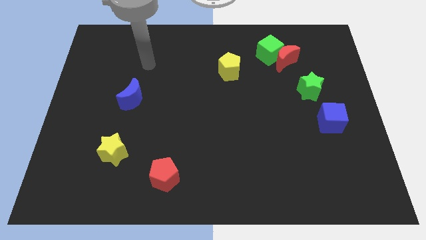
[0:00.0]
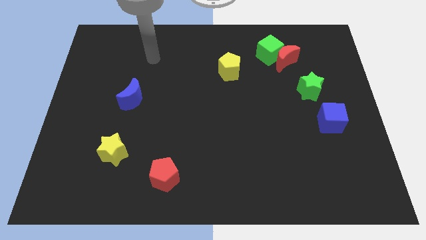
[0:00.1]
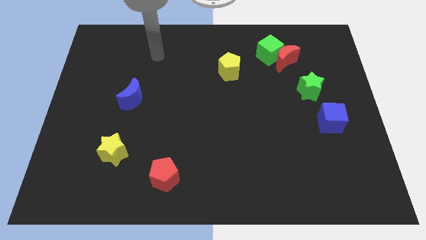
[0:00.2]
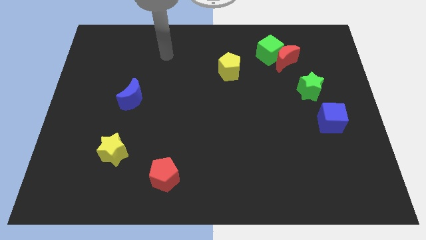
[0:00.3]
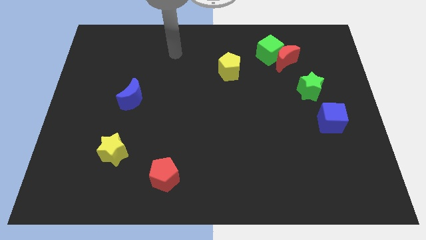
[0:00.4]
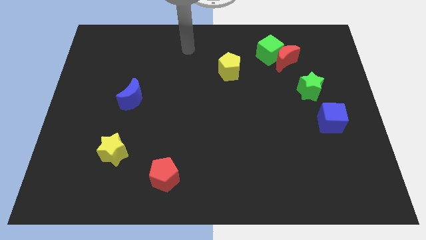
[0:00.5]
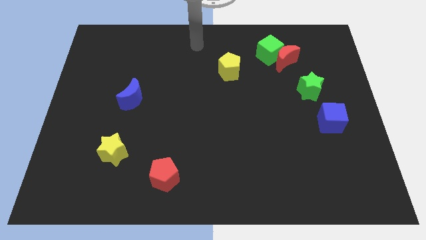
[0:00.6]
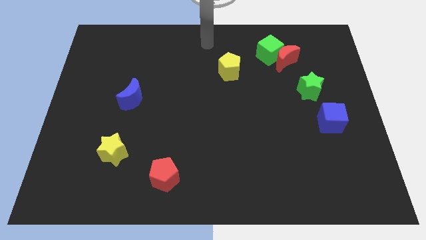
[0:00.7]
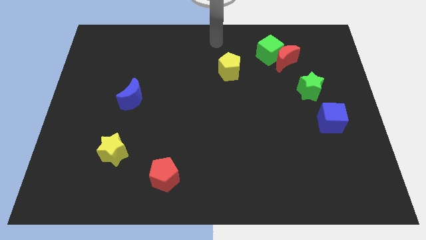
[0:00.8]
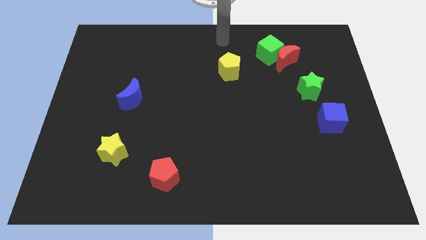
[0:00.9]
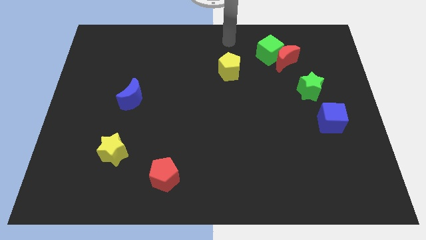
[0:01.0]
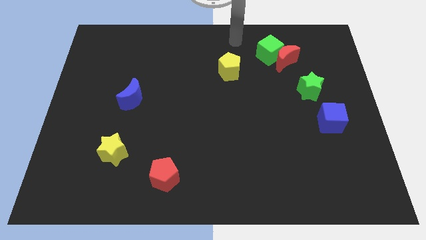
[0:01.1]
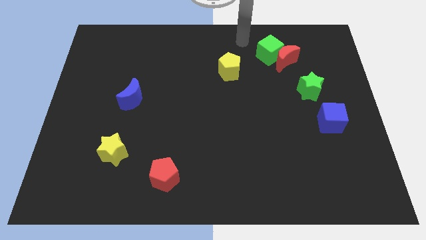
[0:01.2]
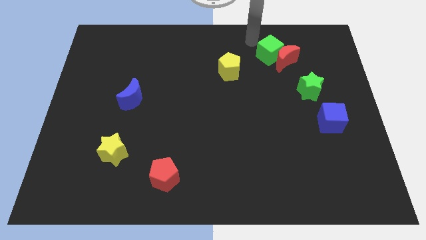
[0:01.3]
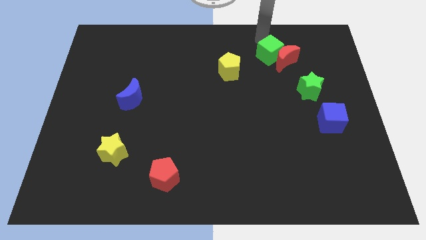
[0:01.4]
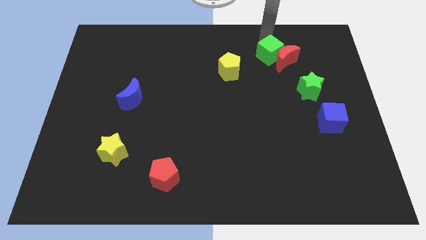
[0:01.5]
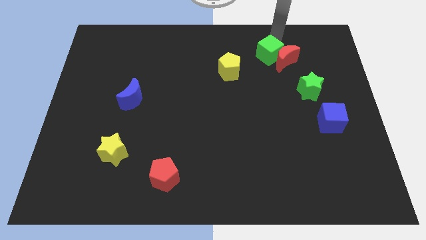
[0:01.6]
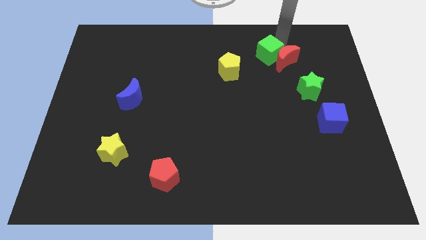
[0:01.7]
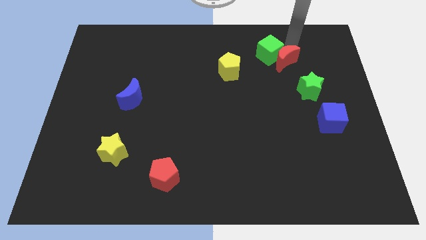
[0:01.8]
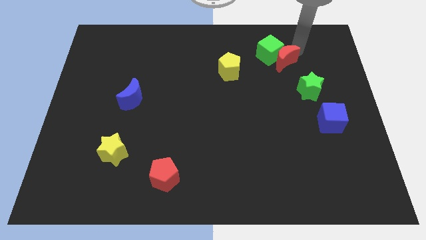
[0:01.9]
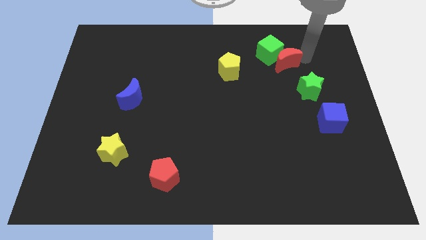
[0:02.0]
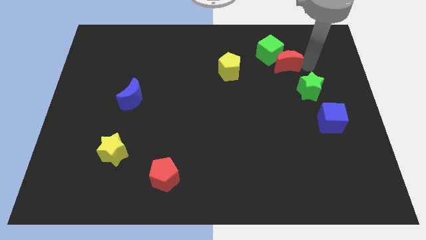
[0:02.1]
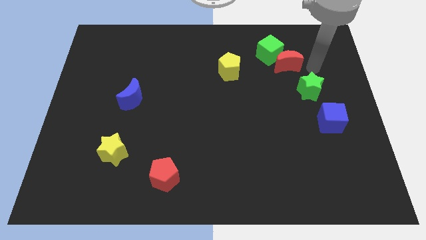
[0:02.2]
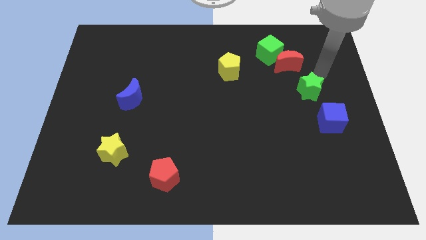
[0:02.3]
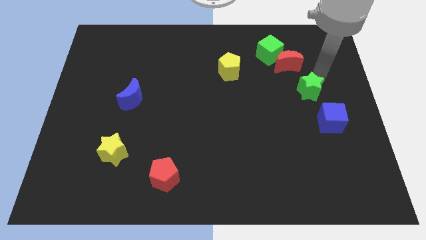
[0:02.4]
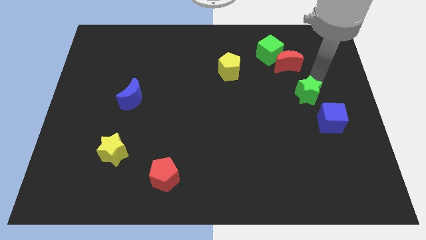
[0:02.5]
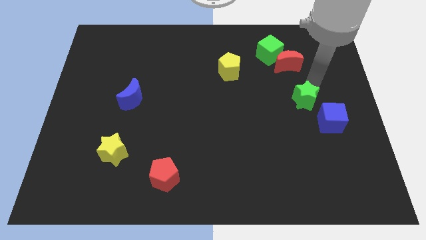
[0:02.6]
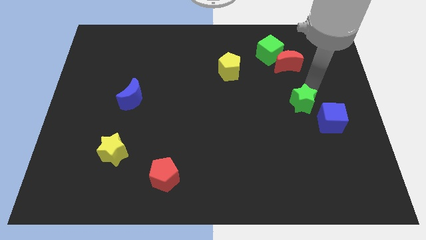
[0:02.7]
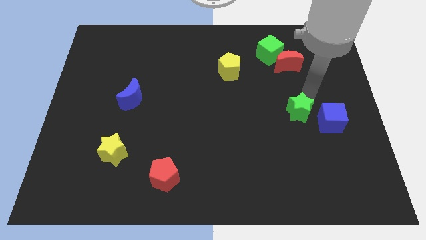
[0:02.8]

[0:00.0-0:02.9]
move the green star a bit down and left

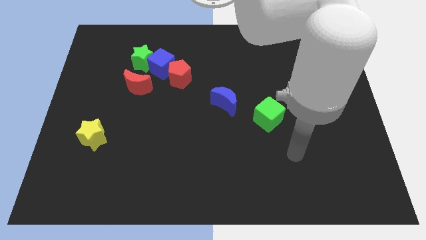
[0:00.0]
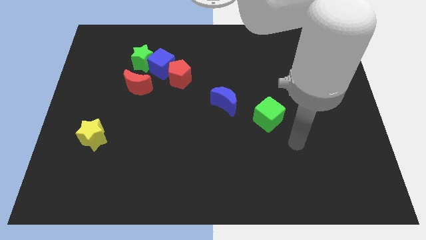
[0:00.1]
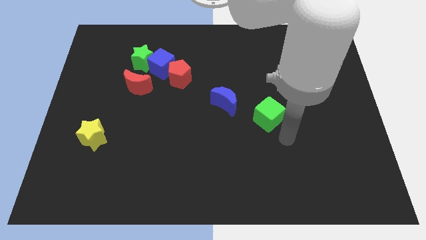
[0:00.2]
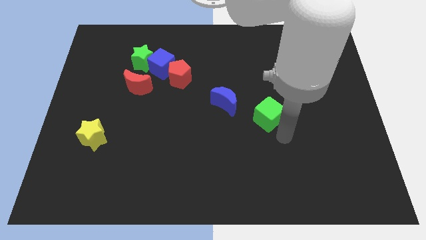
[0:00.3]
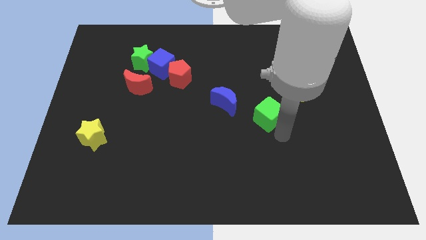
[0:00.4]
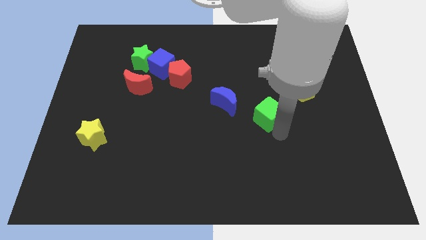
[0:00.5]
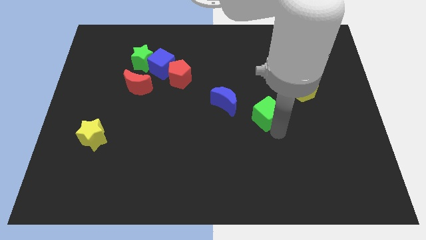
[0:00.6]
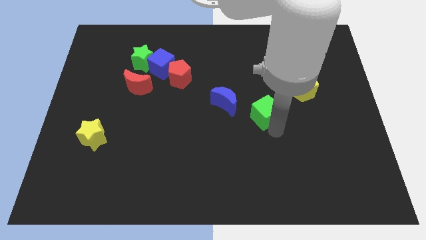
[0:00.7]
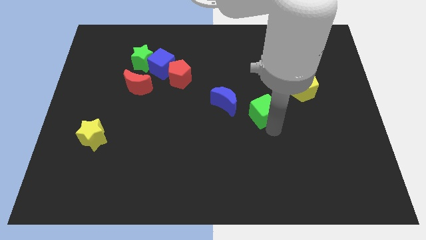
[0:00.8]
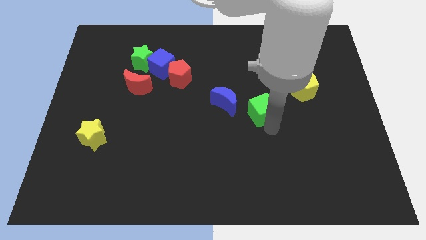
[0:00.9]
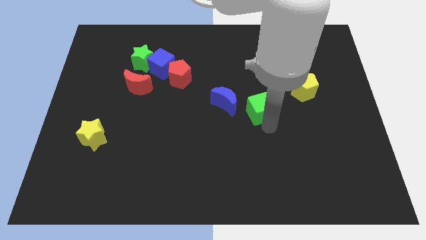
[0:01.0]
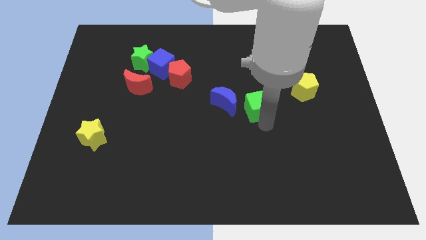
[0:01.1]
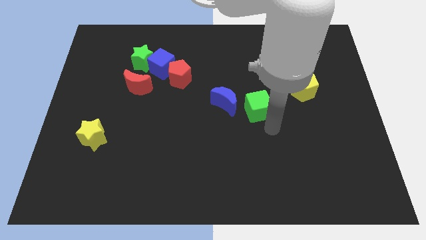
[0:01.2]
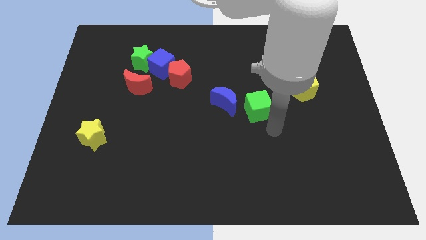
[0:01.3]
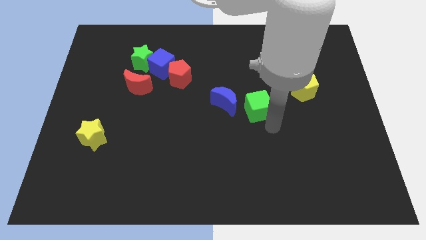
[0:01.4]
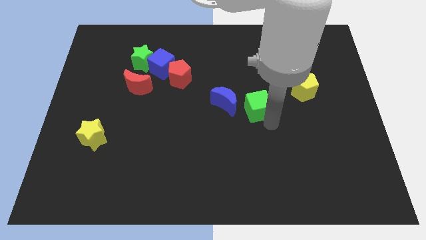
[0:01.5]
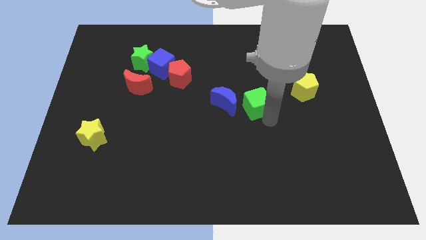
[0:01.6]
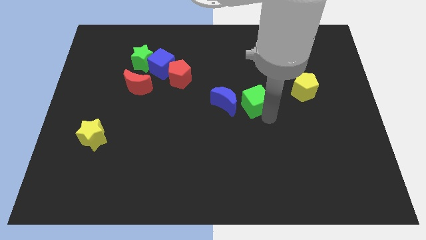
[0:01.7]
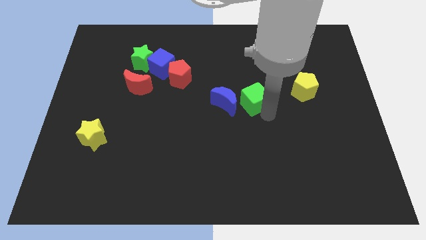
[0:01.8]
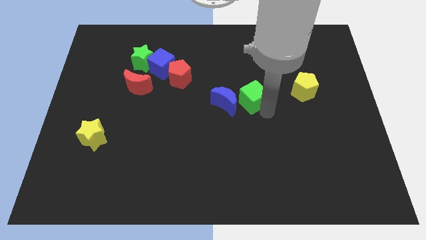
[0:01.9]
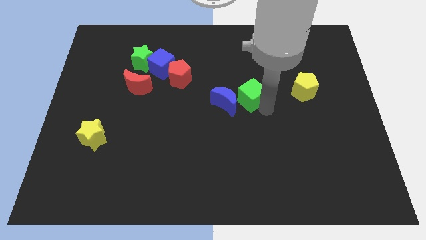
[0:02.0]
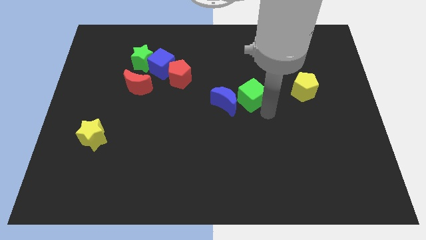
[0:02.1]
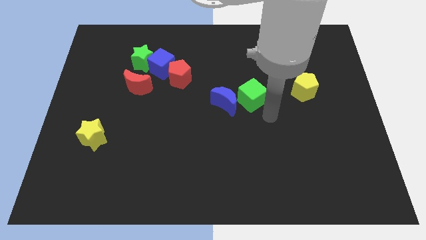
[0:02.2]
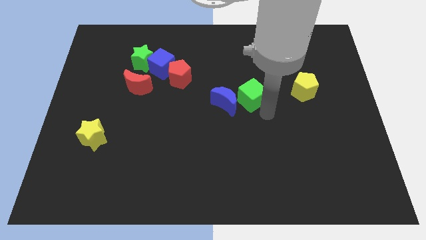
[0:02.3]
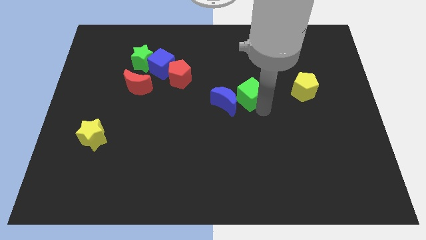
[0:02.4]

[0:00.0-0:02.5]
move the green cube upwards and then to the left a little

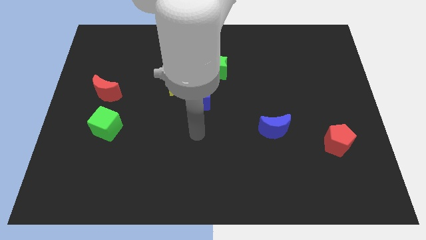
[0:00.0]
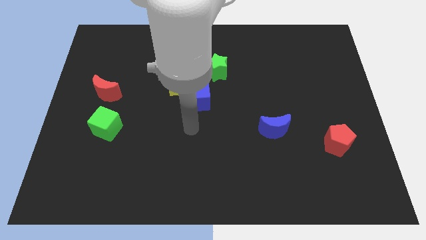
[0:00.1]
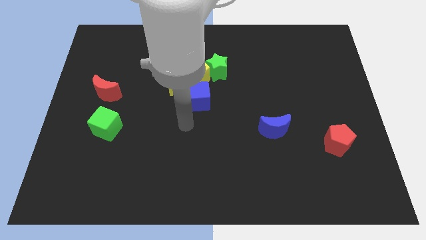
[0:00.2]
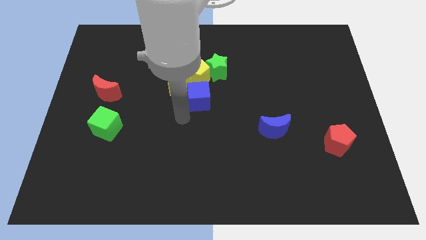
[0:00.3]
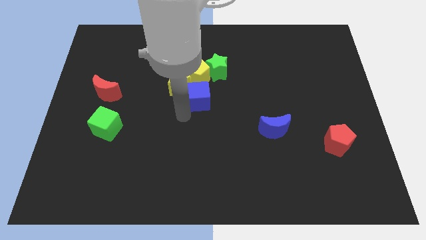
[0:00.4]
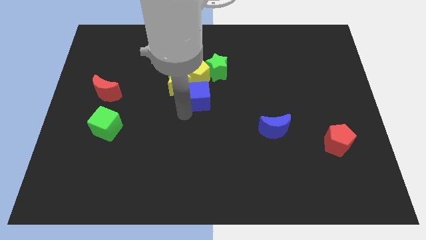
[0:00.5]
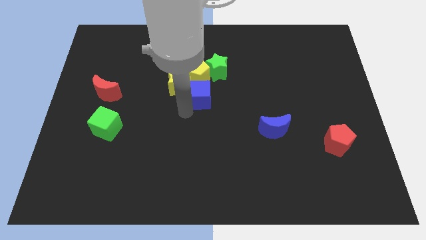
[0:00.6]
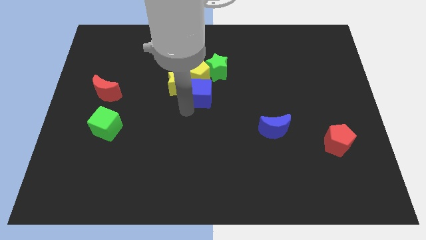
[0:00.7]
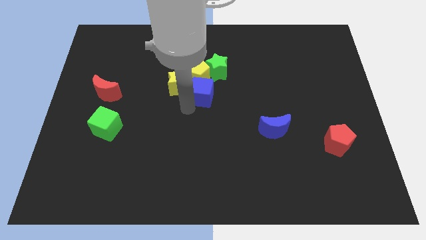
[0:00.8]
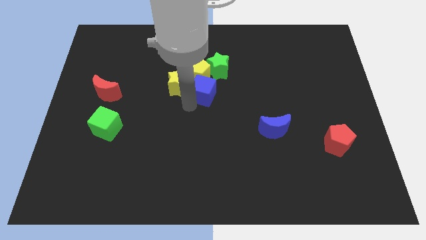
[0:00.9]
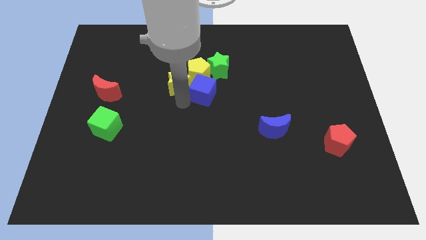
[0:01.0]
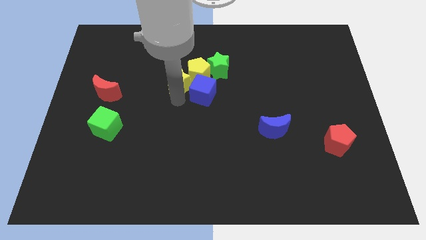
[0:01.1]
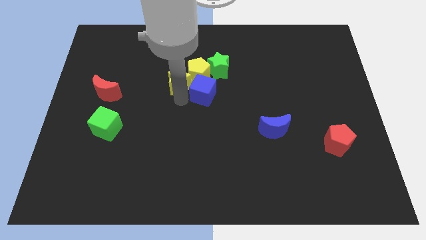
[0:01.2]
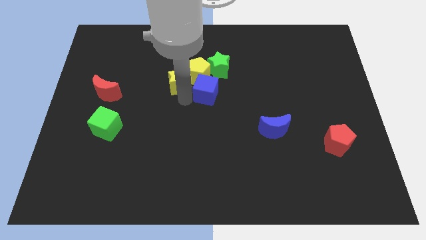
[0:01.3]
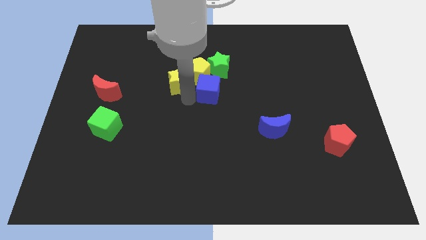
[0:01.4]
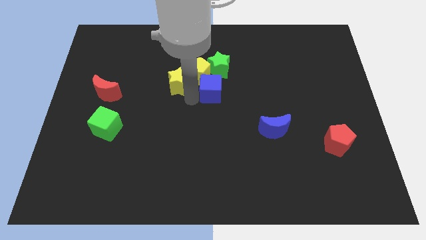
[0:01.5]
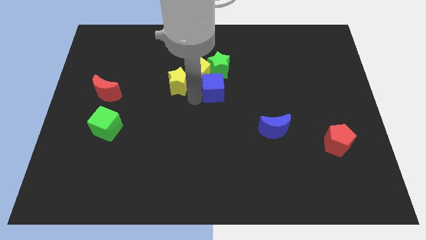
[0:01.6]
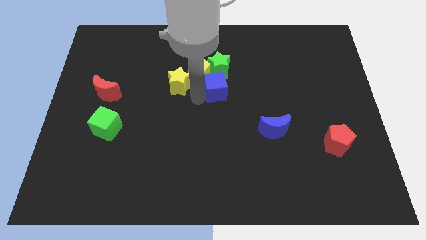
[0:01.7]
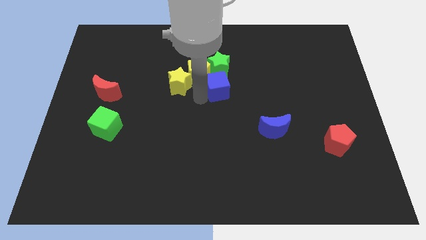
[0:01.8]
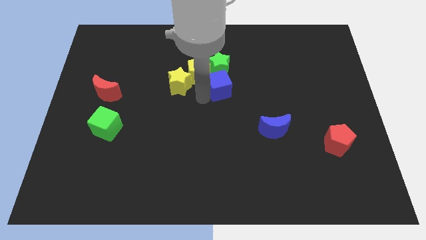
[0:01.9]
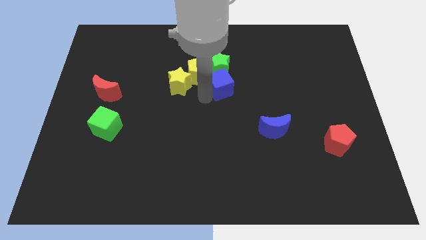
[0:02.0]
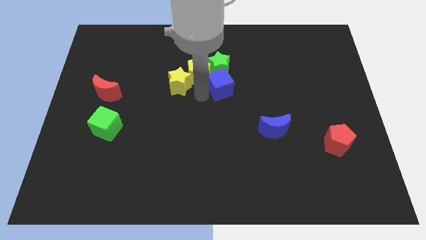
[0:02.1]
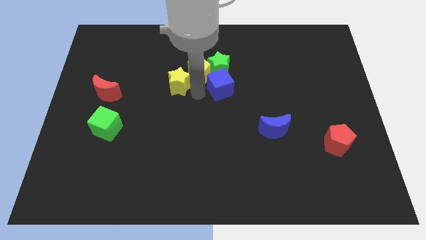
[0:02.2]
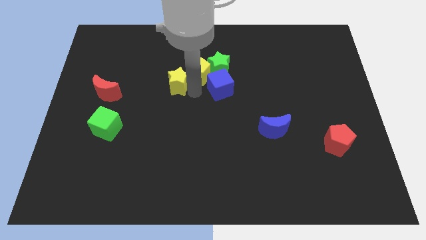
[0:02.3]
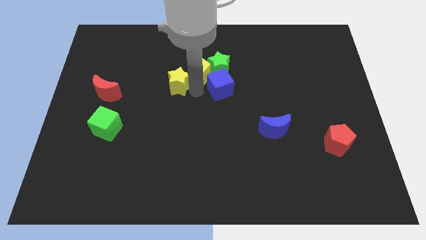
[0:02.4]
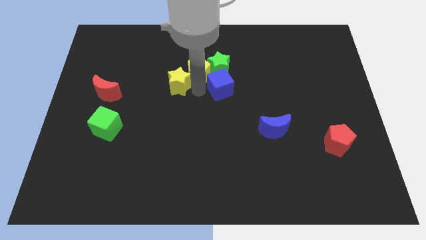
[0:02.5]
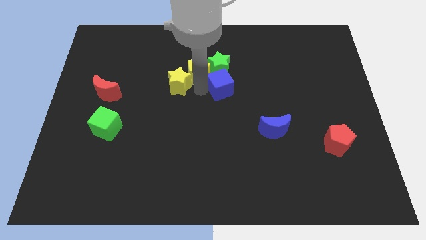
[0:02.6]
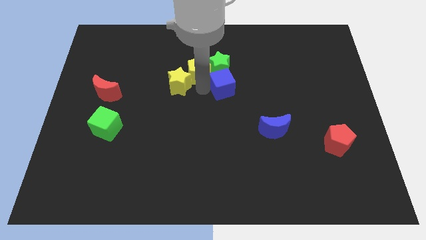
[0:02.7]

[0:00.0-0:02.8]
move the blue cube a bit diagonally upwards and right
